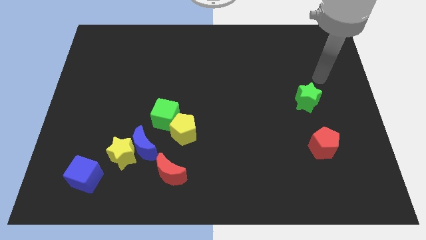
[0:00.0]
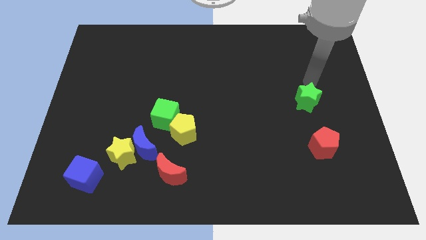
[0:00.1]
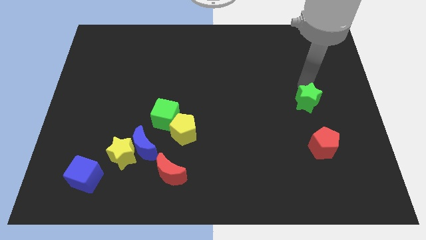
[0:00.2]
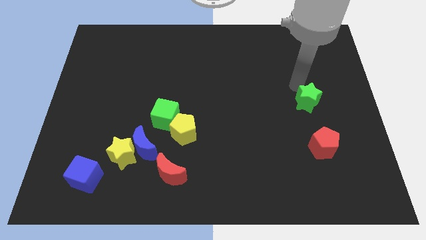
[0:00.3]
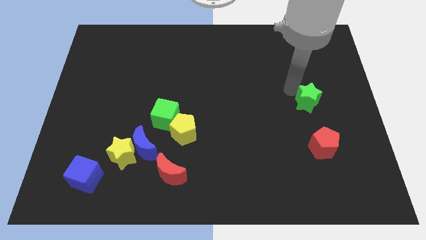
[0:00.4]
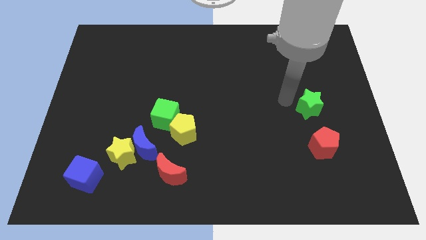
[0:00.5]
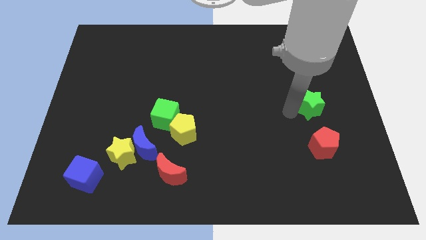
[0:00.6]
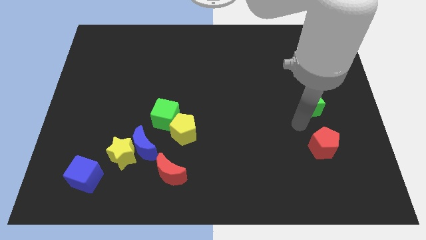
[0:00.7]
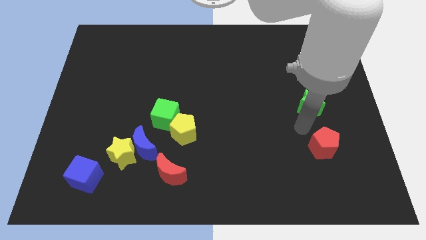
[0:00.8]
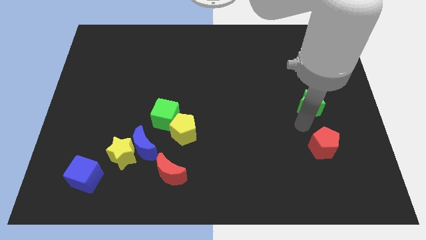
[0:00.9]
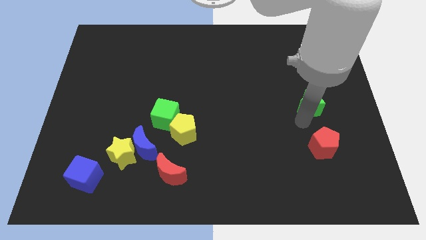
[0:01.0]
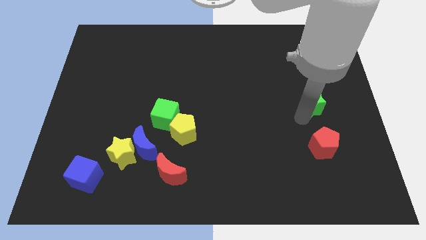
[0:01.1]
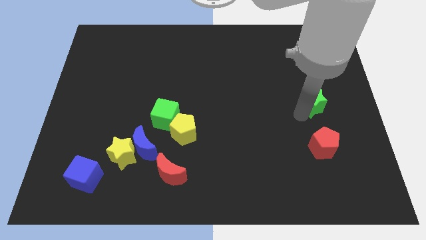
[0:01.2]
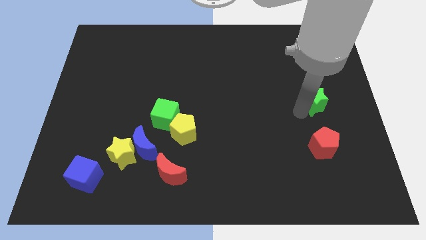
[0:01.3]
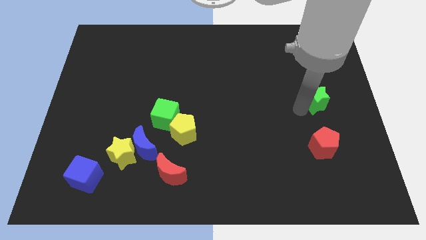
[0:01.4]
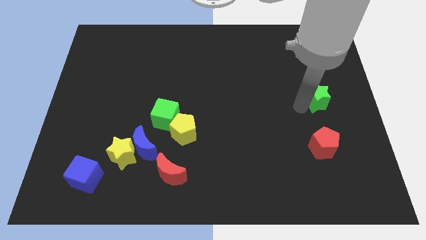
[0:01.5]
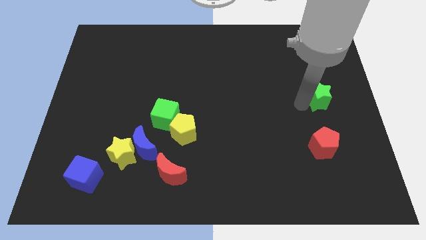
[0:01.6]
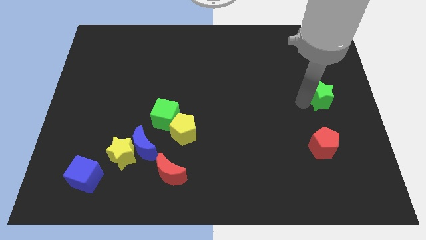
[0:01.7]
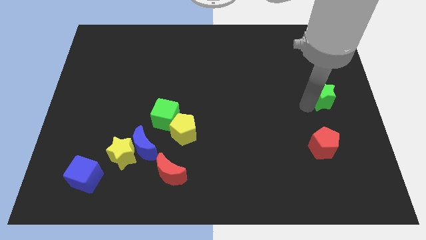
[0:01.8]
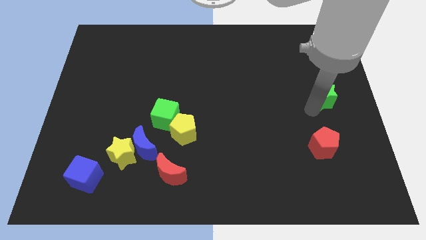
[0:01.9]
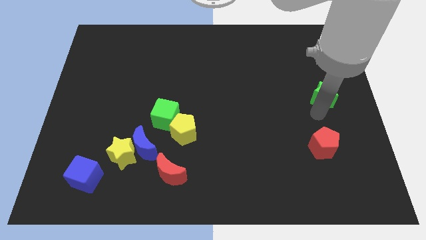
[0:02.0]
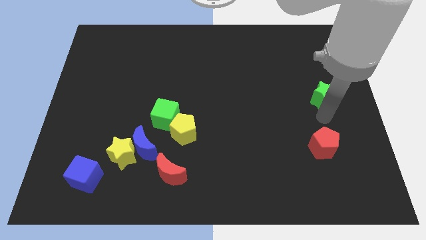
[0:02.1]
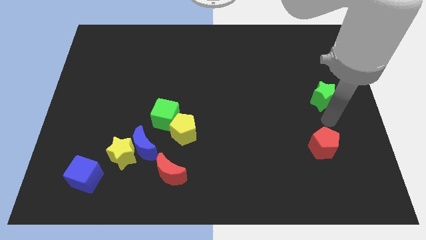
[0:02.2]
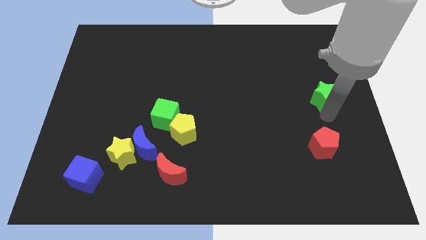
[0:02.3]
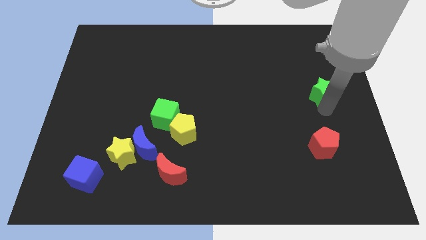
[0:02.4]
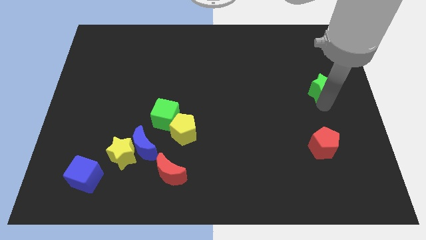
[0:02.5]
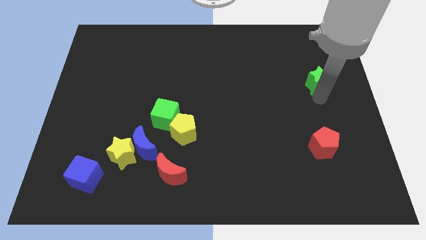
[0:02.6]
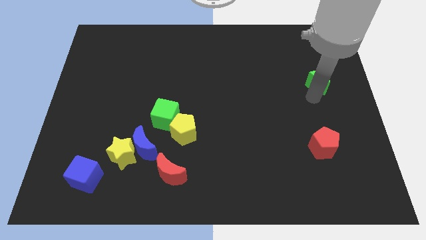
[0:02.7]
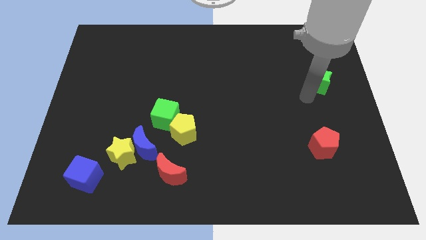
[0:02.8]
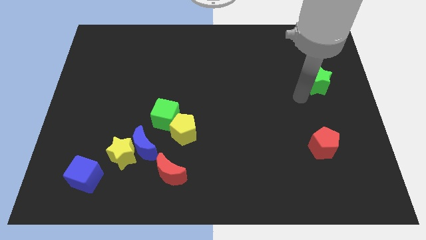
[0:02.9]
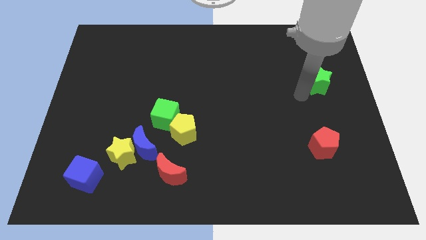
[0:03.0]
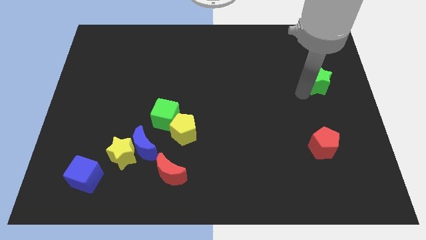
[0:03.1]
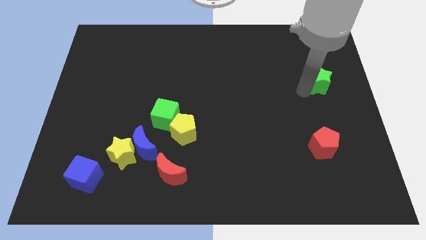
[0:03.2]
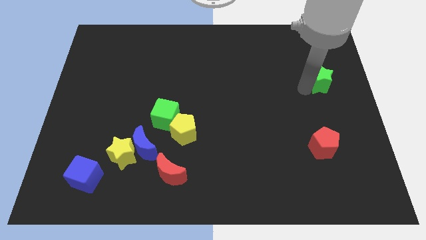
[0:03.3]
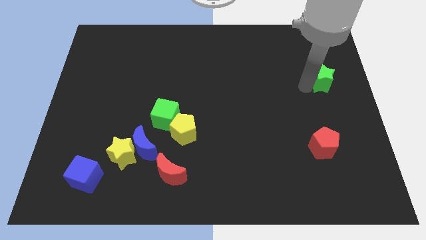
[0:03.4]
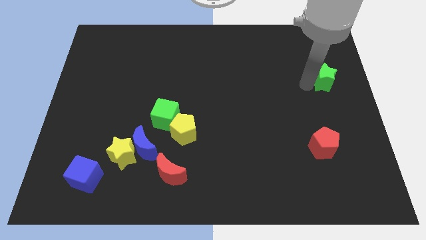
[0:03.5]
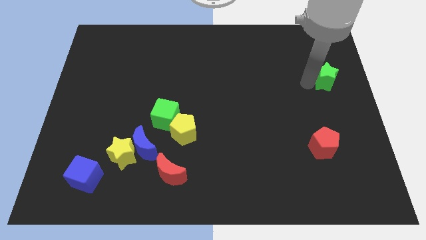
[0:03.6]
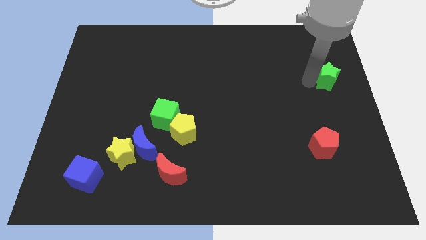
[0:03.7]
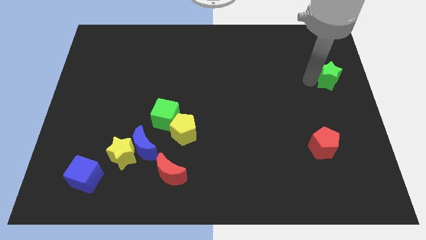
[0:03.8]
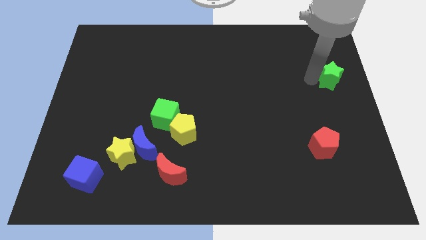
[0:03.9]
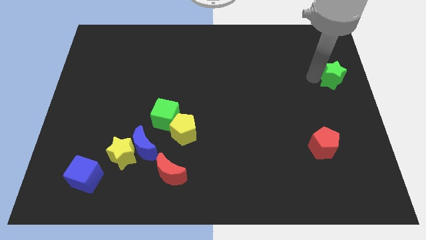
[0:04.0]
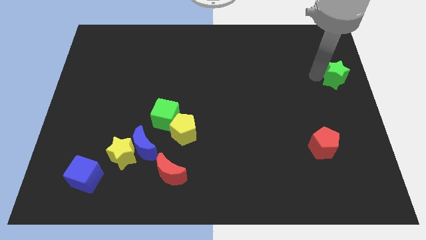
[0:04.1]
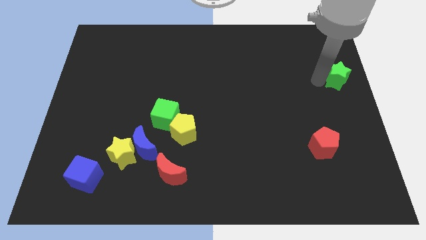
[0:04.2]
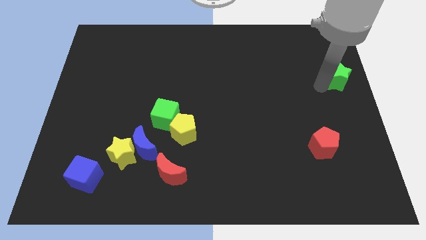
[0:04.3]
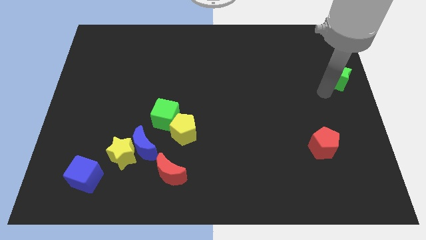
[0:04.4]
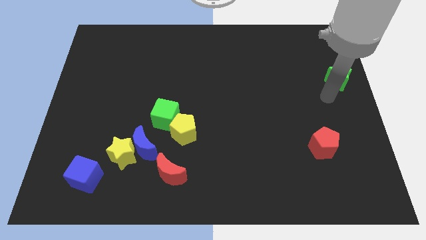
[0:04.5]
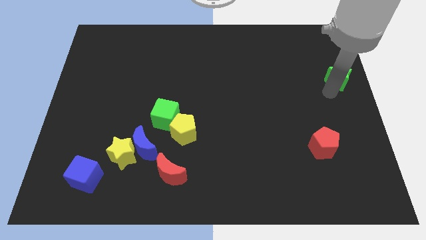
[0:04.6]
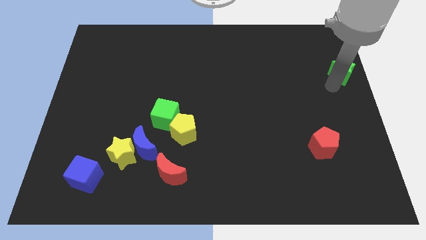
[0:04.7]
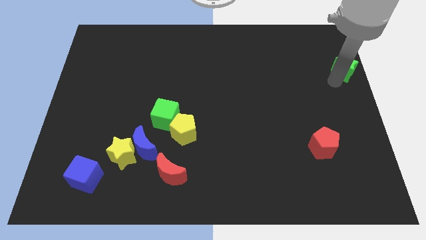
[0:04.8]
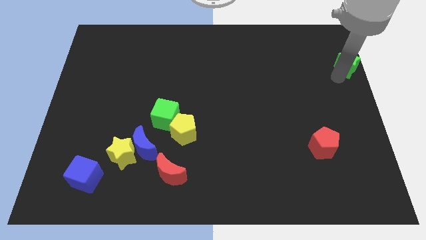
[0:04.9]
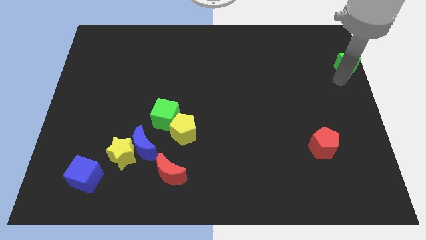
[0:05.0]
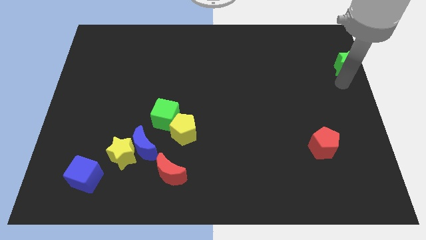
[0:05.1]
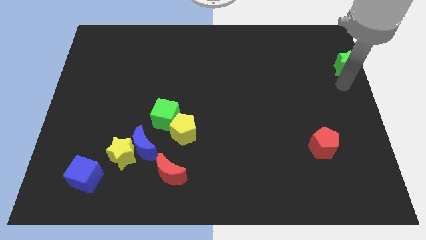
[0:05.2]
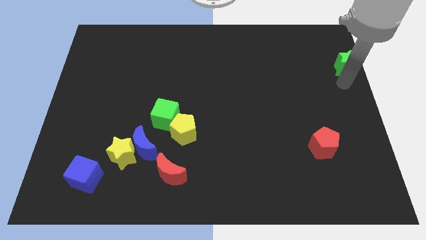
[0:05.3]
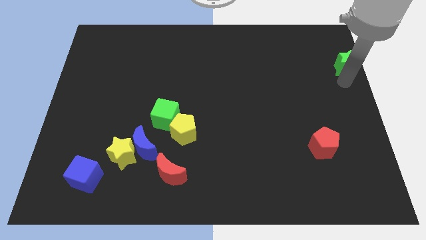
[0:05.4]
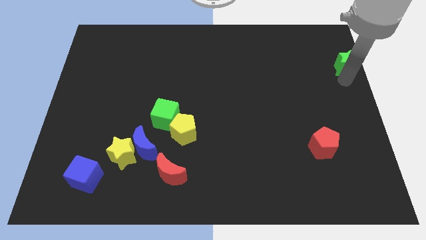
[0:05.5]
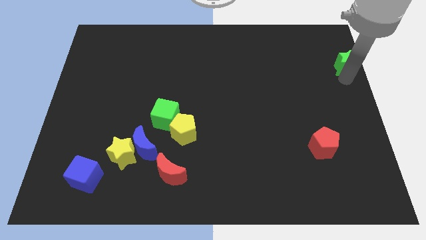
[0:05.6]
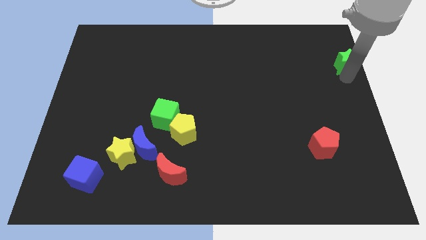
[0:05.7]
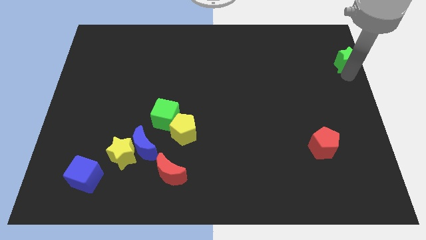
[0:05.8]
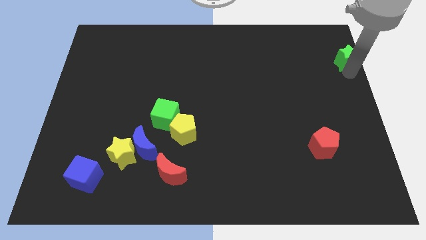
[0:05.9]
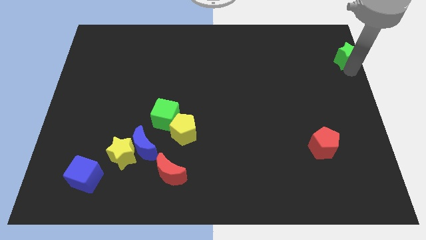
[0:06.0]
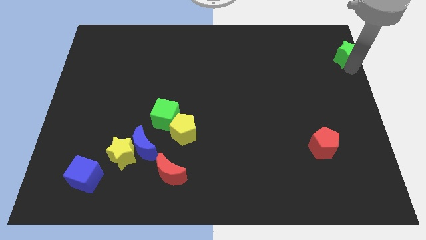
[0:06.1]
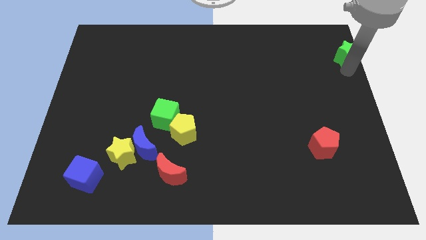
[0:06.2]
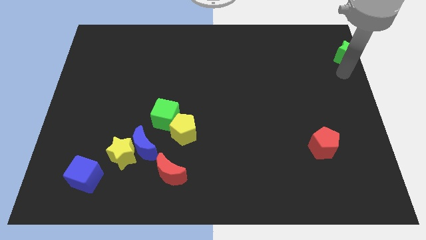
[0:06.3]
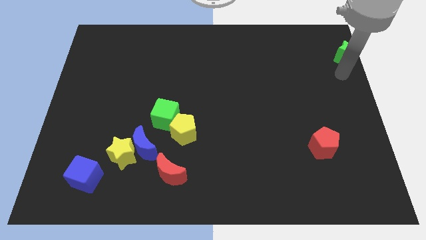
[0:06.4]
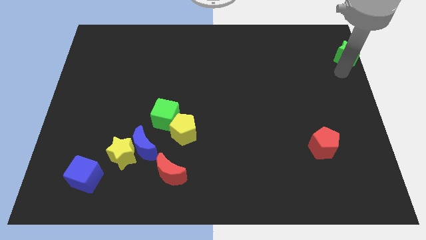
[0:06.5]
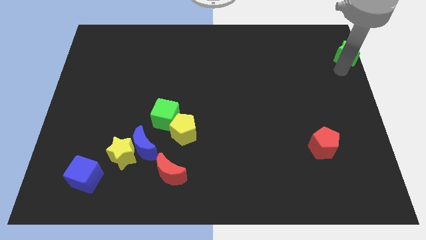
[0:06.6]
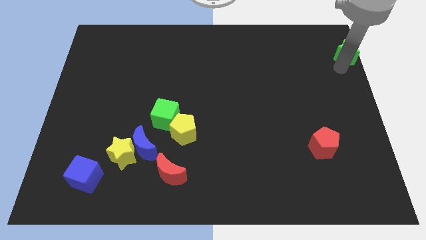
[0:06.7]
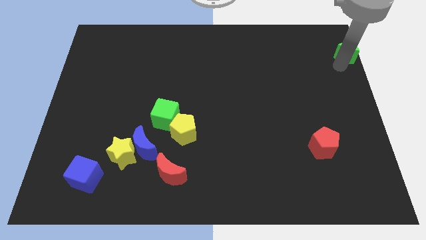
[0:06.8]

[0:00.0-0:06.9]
push the green star to the upper right corner
